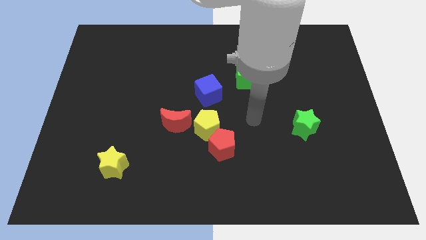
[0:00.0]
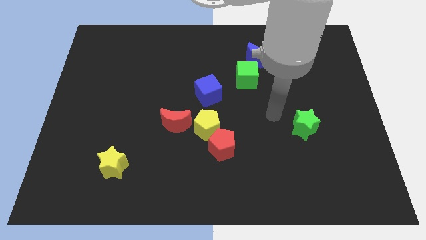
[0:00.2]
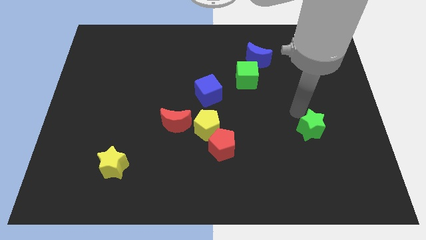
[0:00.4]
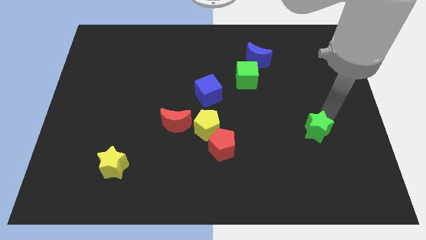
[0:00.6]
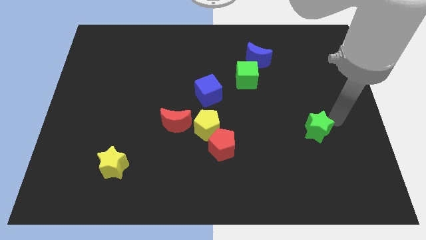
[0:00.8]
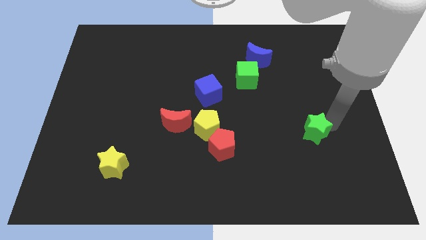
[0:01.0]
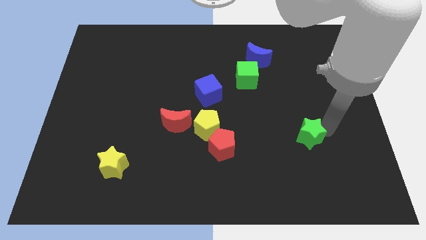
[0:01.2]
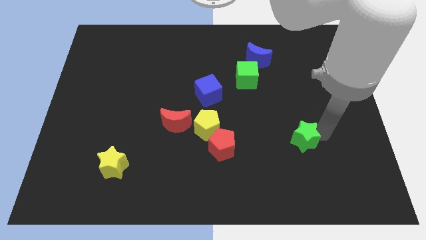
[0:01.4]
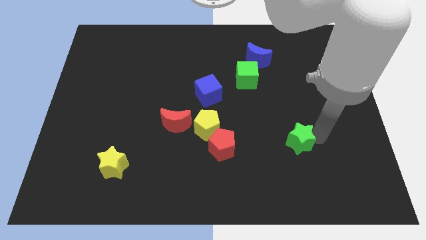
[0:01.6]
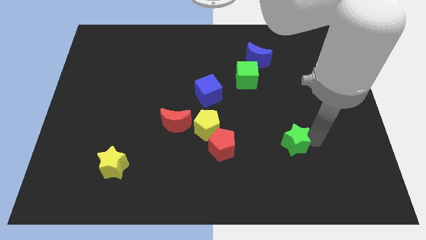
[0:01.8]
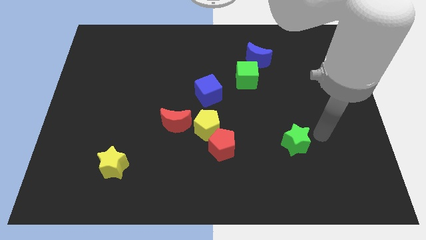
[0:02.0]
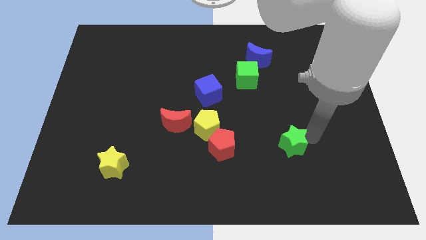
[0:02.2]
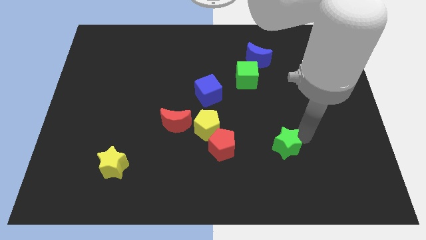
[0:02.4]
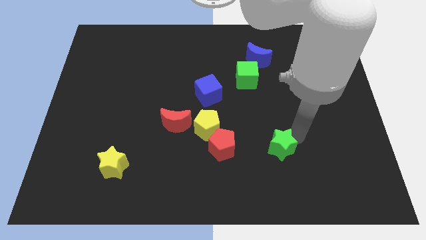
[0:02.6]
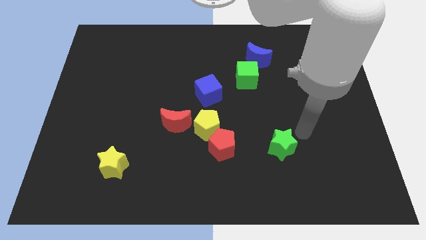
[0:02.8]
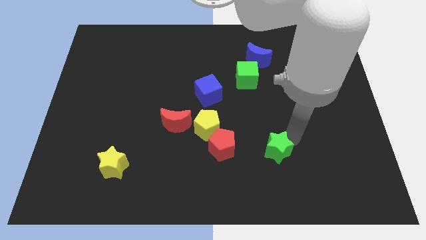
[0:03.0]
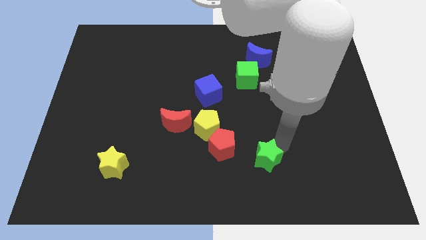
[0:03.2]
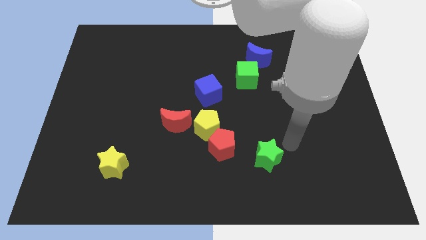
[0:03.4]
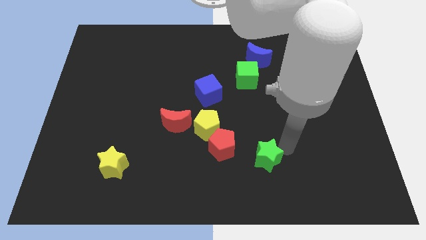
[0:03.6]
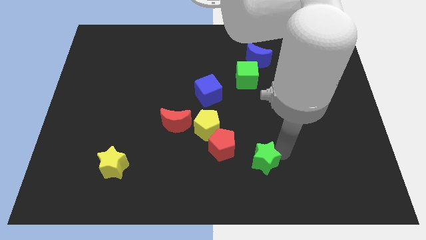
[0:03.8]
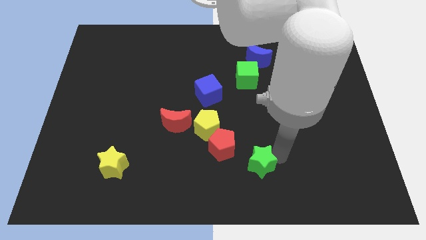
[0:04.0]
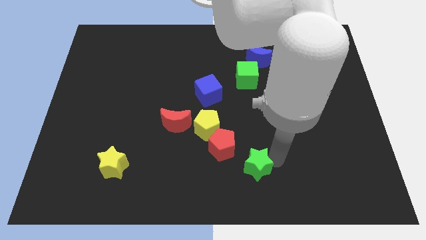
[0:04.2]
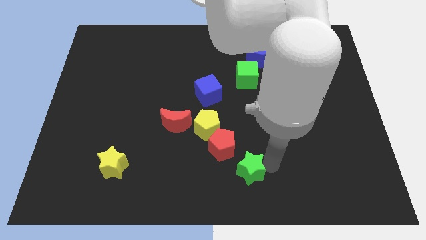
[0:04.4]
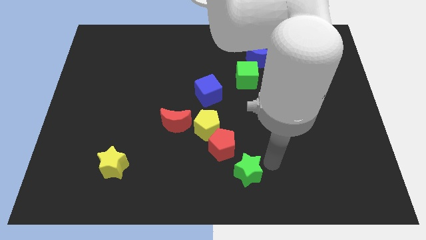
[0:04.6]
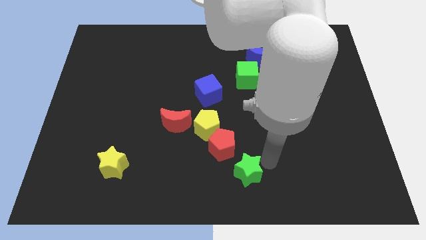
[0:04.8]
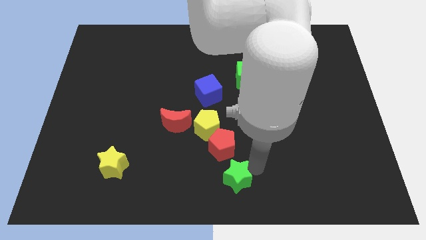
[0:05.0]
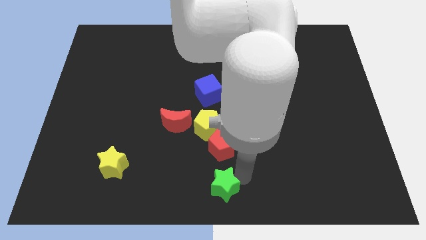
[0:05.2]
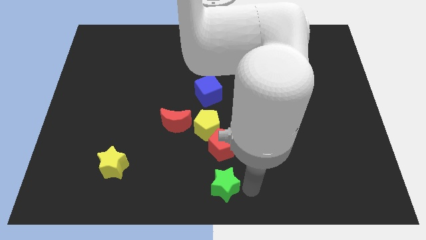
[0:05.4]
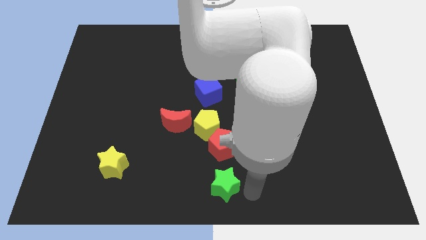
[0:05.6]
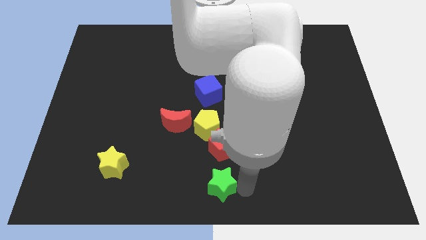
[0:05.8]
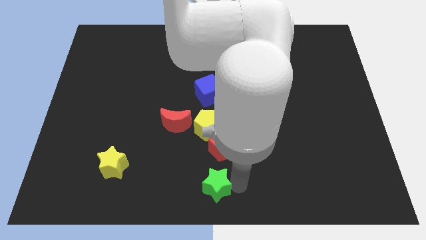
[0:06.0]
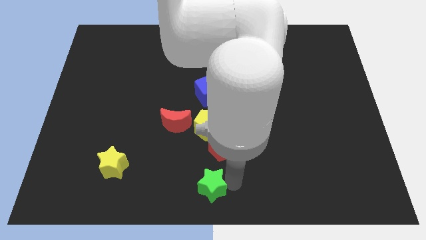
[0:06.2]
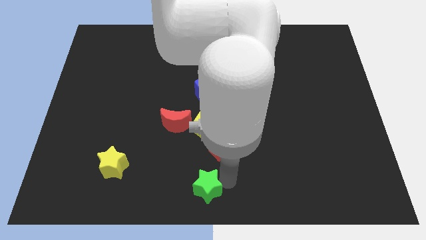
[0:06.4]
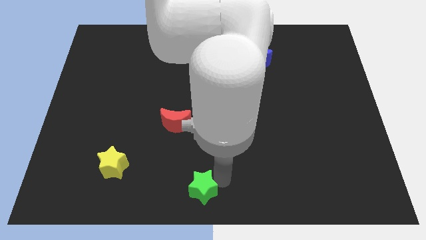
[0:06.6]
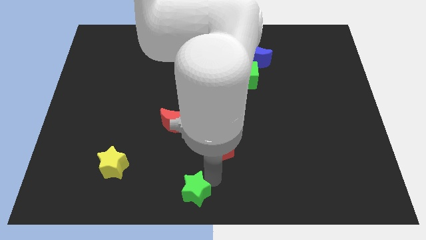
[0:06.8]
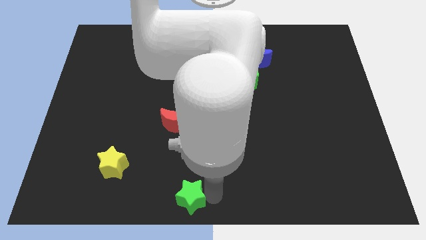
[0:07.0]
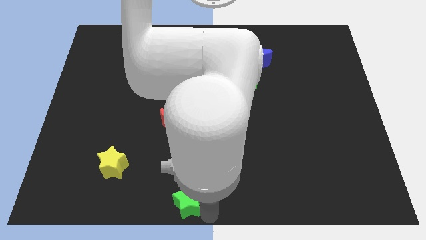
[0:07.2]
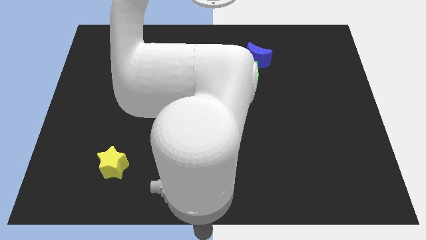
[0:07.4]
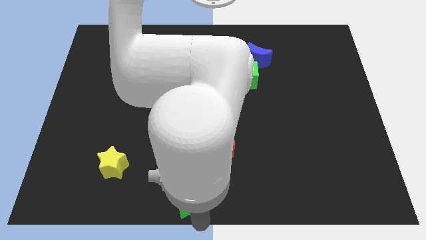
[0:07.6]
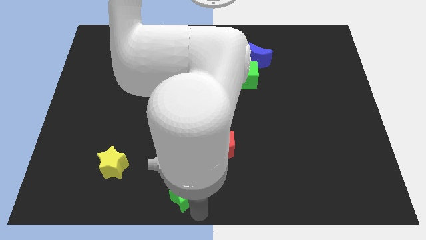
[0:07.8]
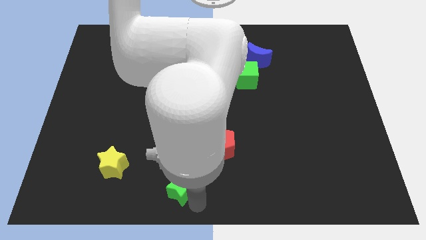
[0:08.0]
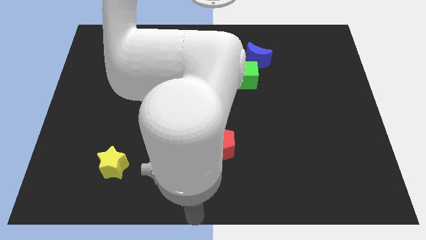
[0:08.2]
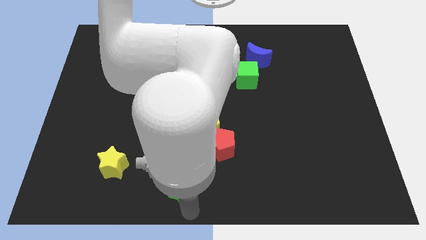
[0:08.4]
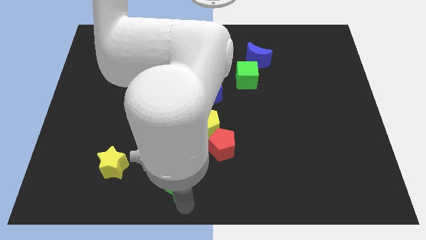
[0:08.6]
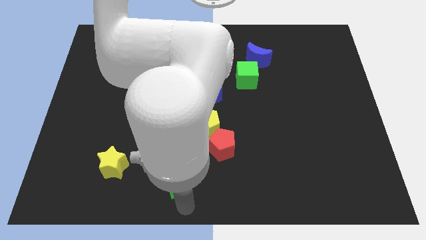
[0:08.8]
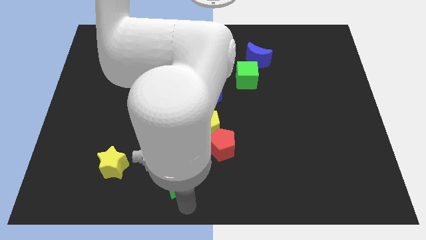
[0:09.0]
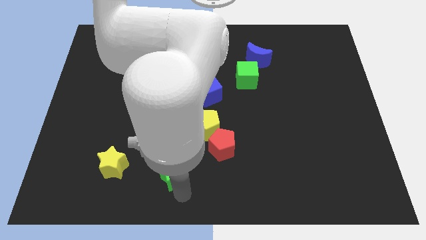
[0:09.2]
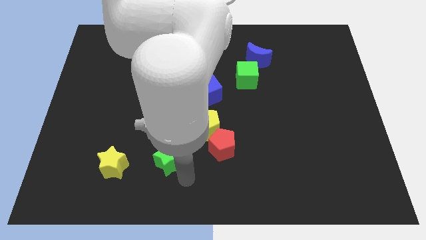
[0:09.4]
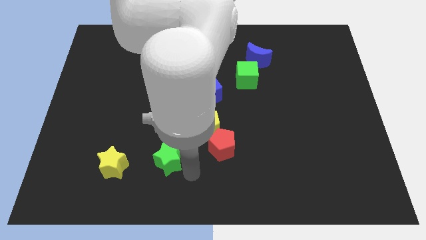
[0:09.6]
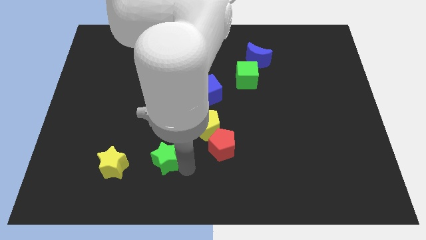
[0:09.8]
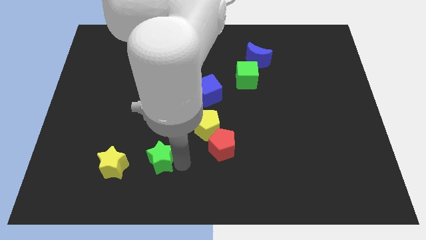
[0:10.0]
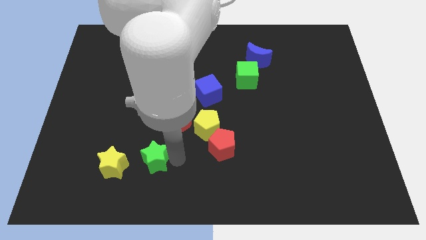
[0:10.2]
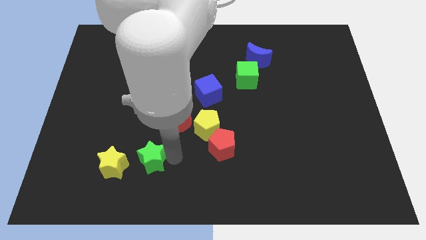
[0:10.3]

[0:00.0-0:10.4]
put the green star to the top right side of the yellow star

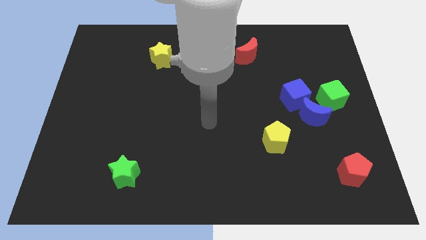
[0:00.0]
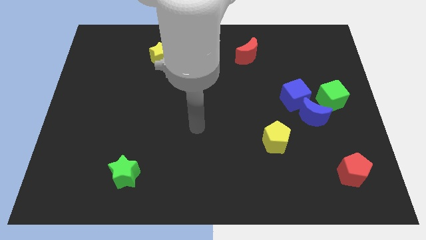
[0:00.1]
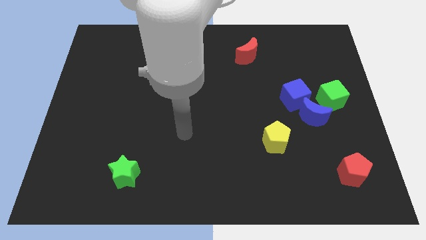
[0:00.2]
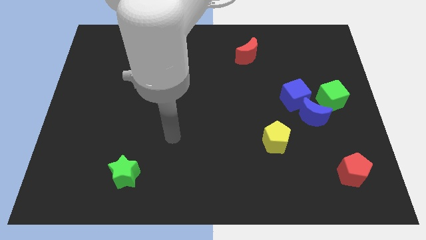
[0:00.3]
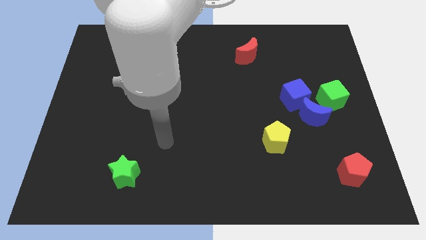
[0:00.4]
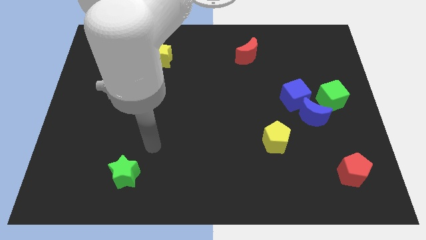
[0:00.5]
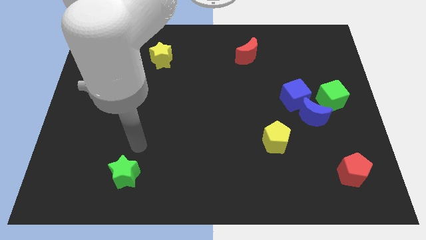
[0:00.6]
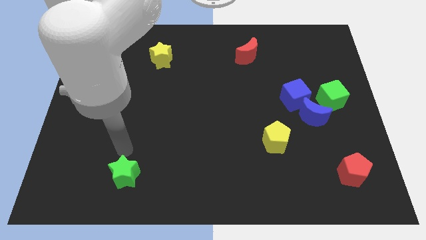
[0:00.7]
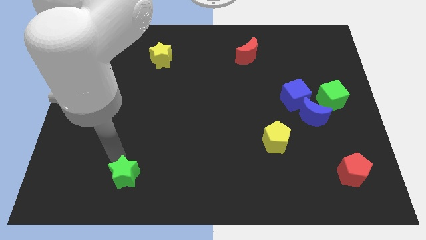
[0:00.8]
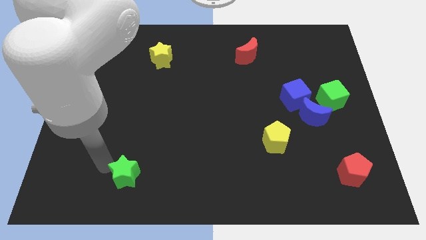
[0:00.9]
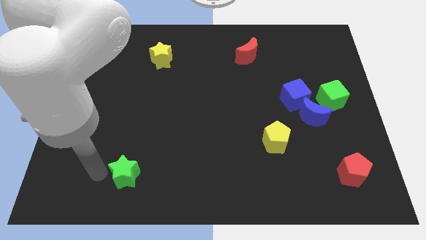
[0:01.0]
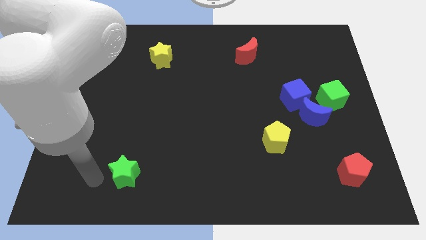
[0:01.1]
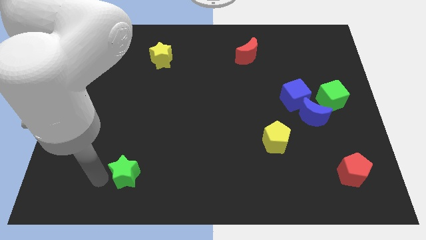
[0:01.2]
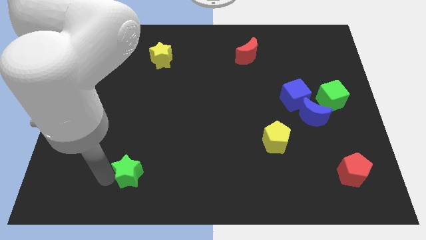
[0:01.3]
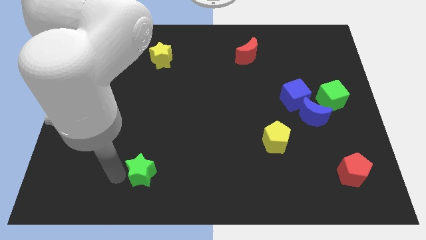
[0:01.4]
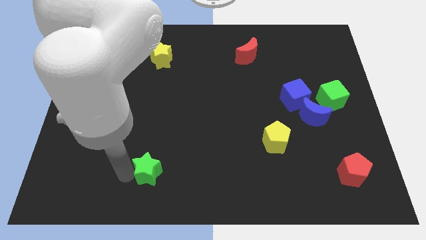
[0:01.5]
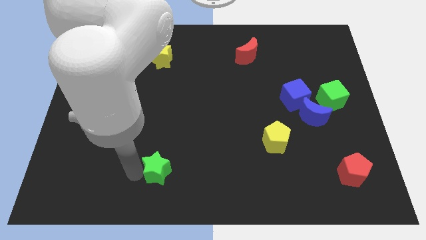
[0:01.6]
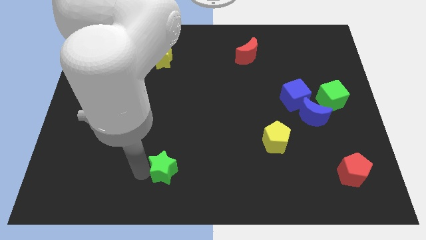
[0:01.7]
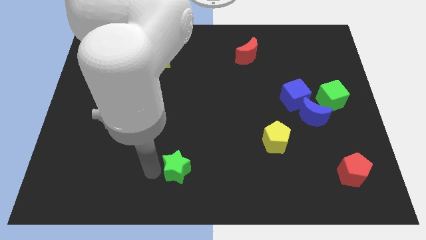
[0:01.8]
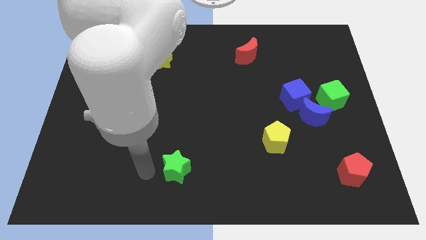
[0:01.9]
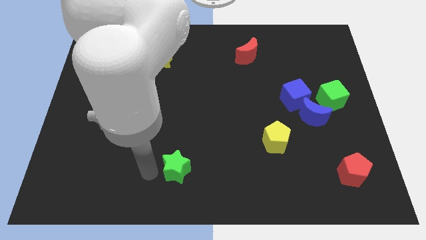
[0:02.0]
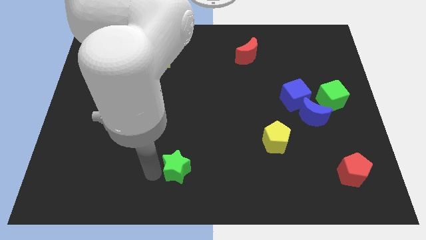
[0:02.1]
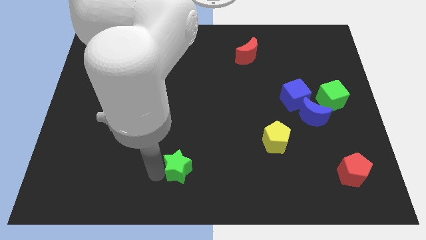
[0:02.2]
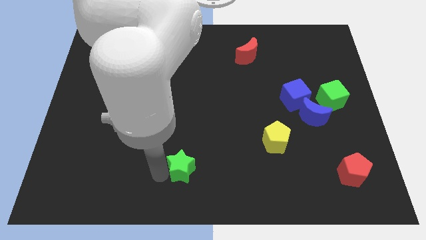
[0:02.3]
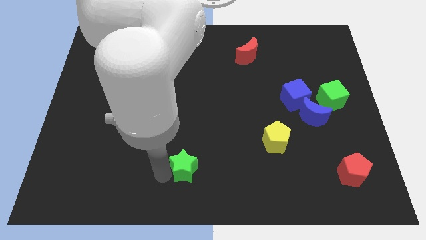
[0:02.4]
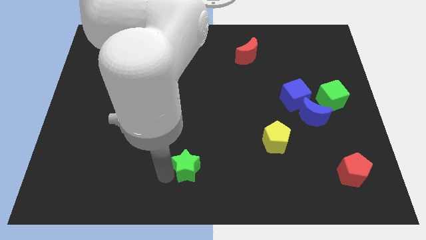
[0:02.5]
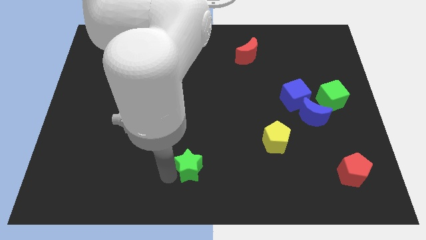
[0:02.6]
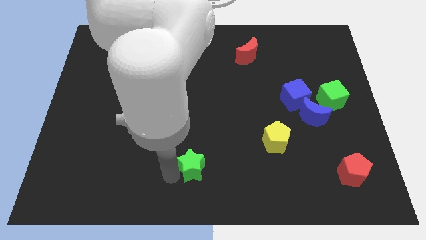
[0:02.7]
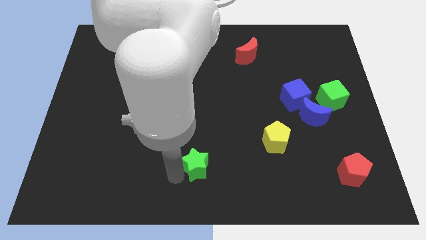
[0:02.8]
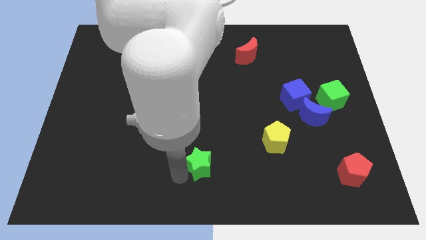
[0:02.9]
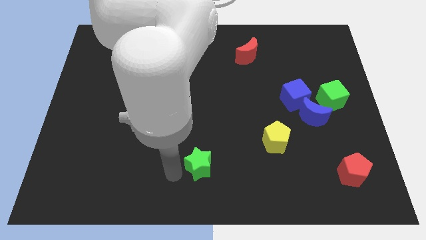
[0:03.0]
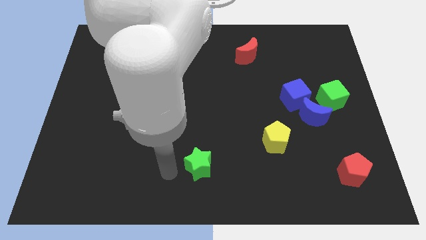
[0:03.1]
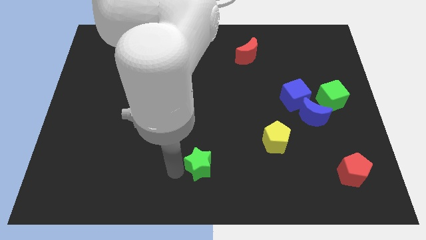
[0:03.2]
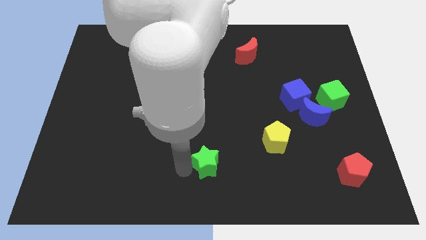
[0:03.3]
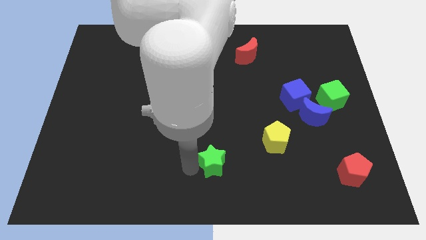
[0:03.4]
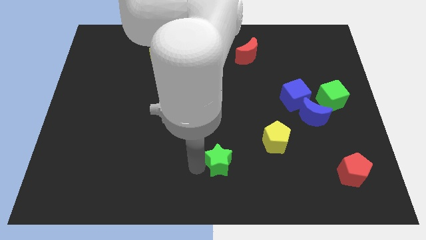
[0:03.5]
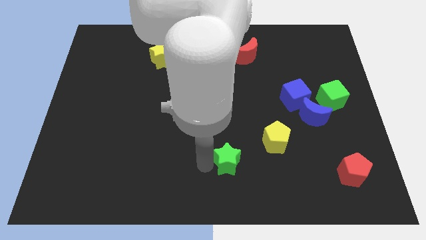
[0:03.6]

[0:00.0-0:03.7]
slide the green star to the bottom left side of the yellow pentagon
